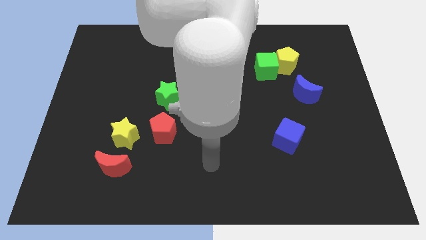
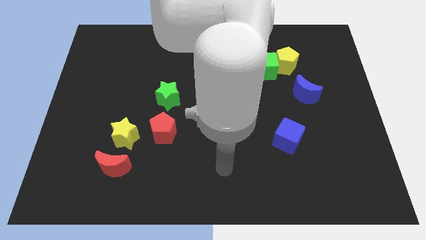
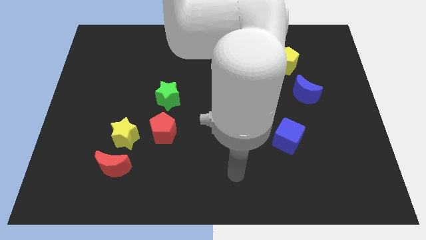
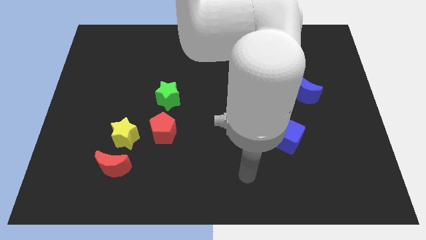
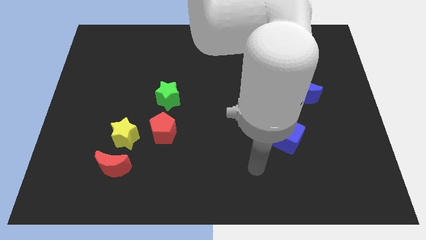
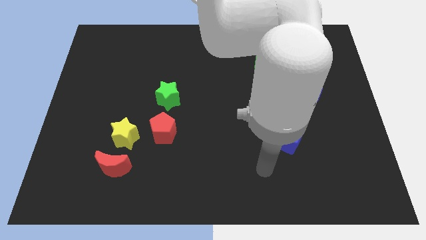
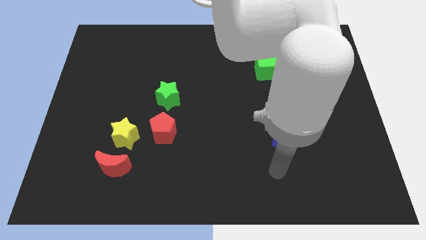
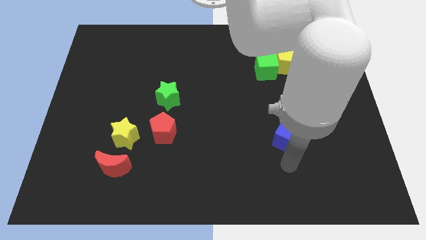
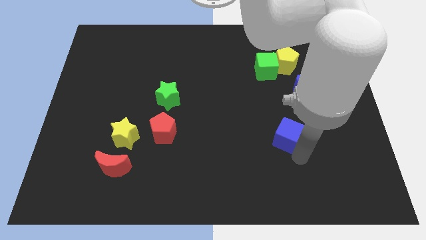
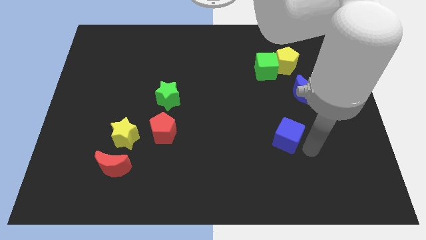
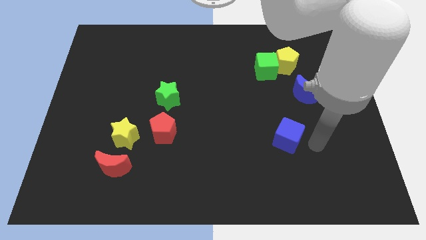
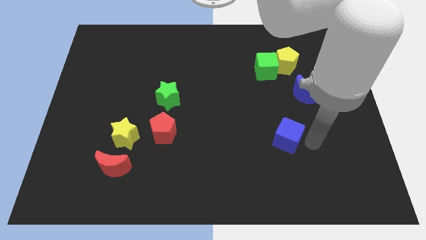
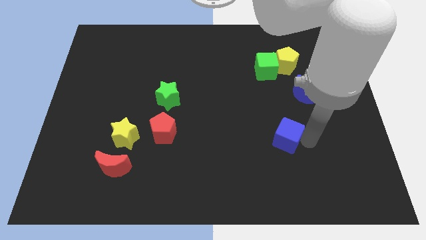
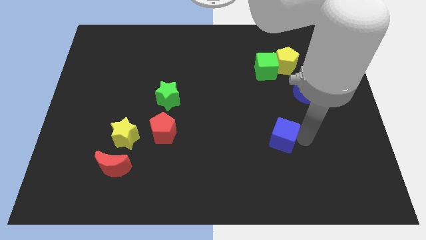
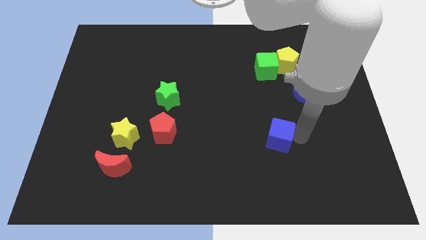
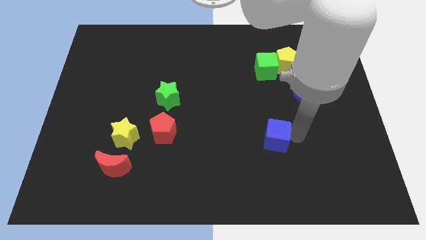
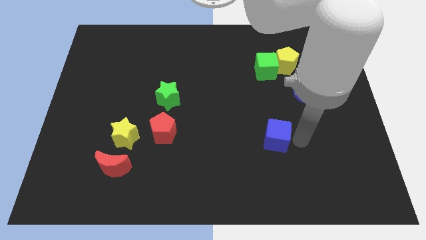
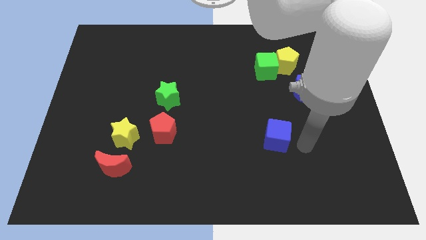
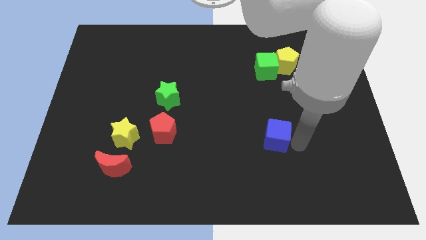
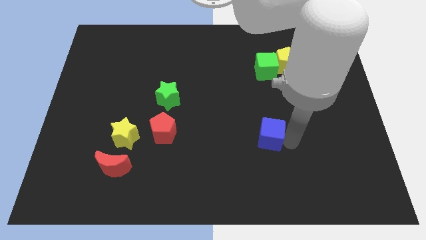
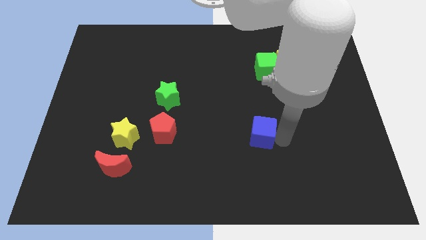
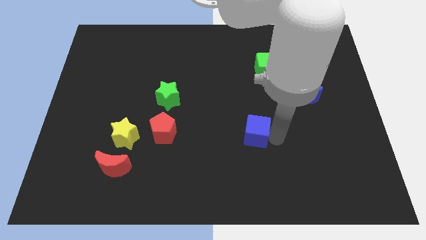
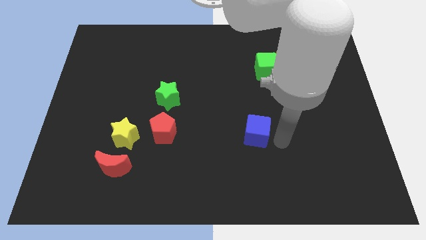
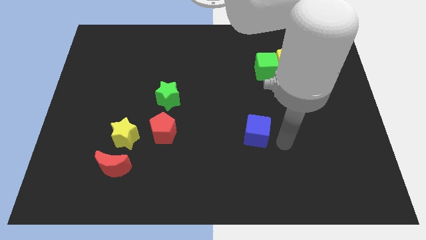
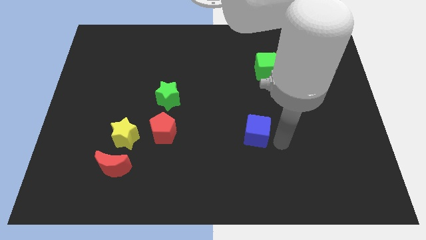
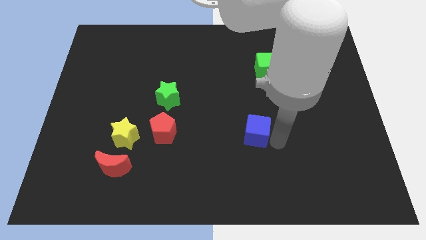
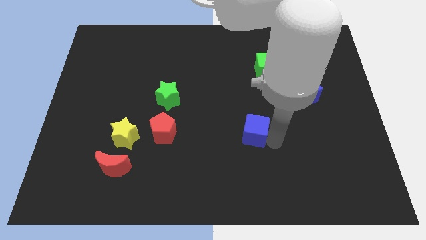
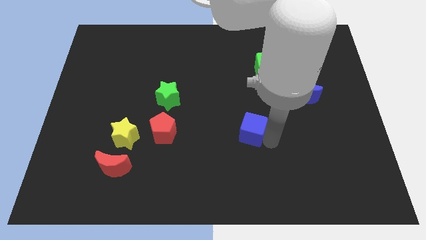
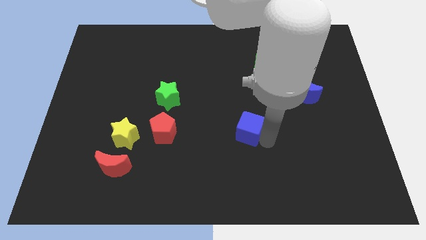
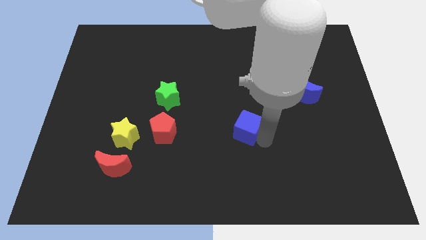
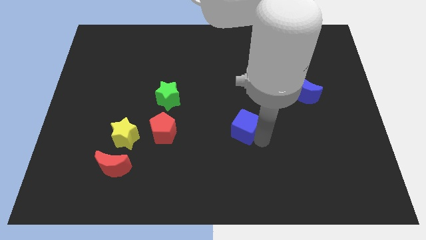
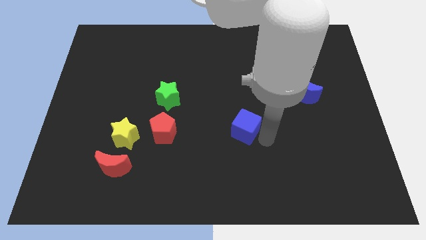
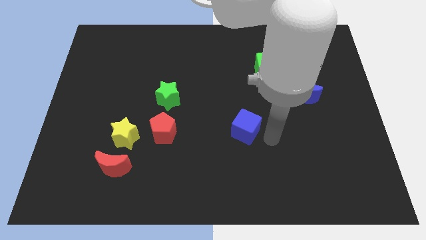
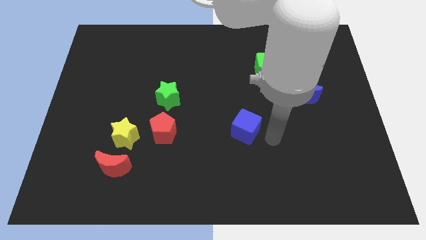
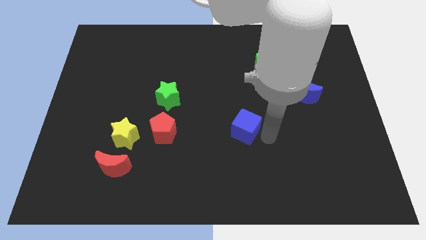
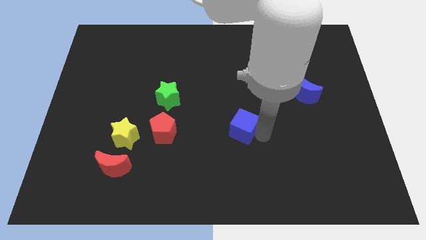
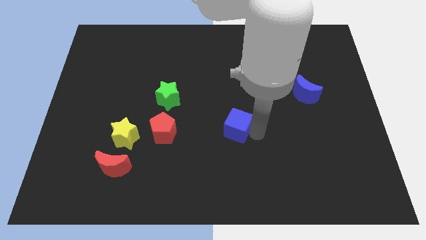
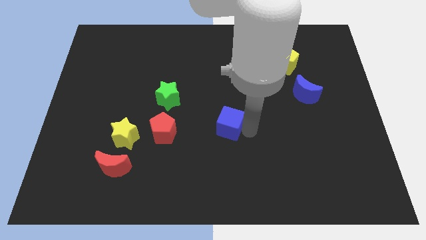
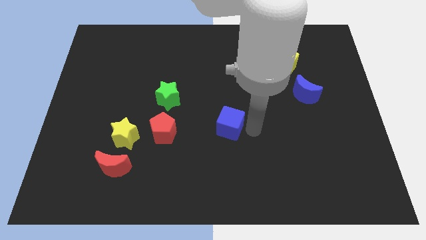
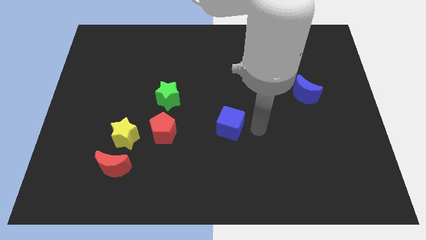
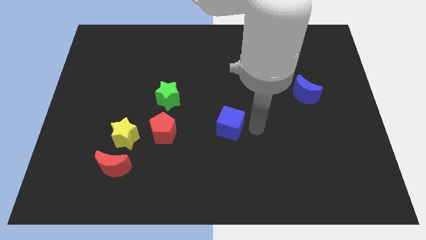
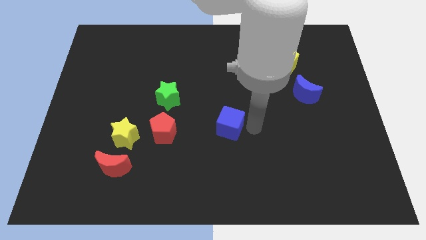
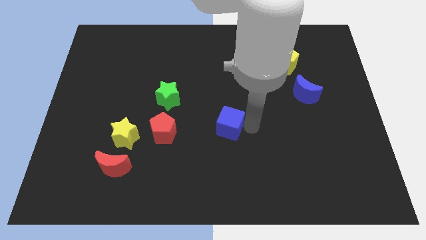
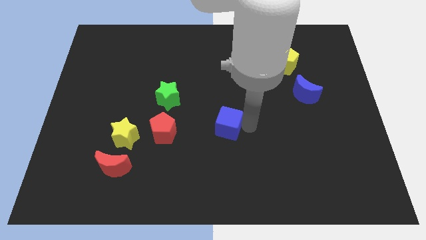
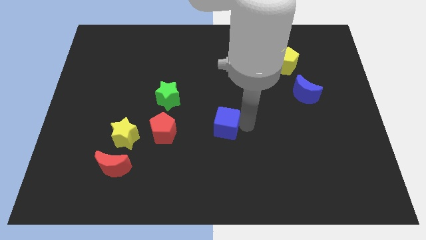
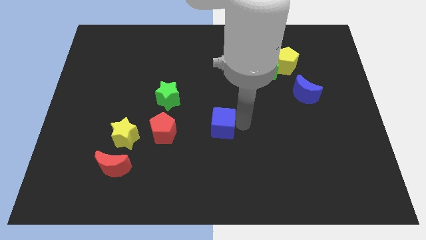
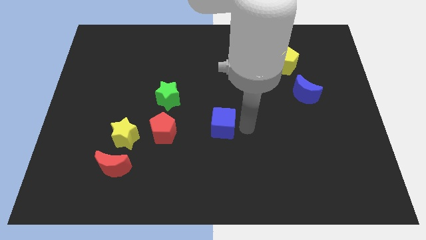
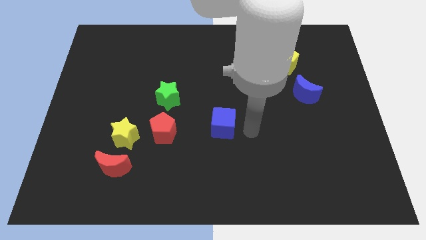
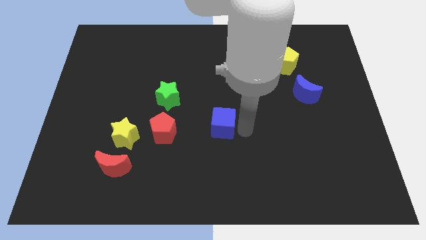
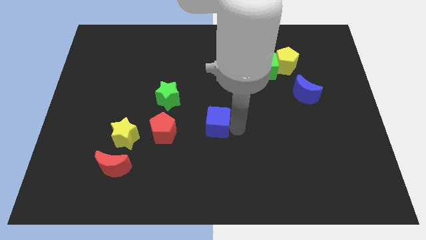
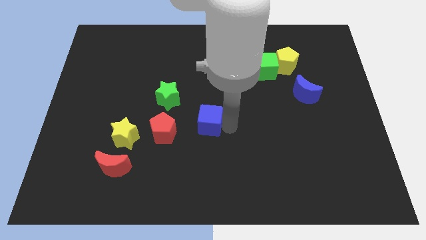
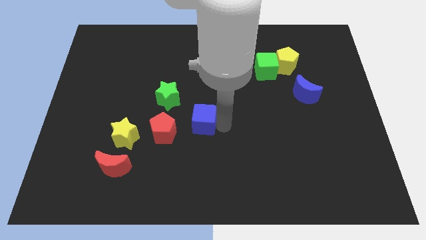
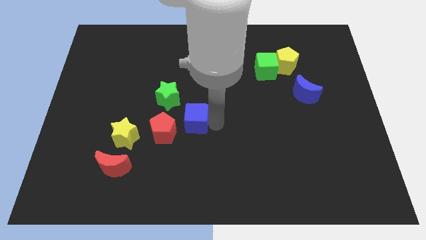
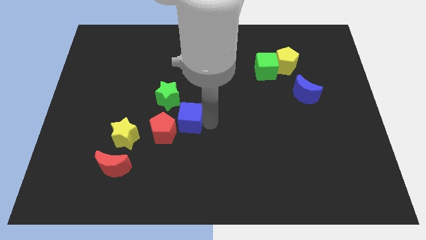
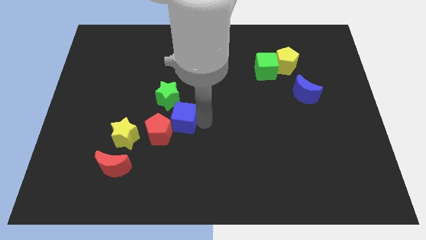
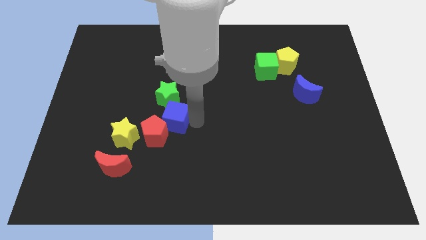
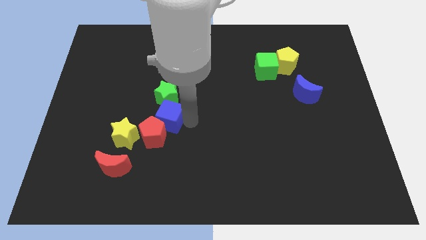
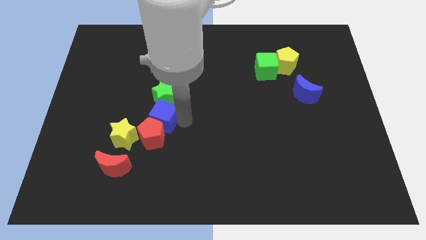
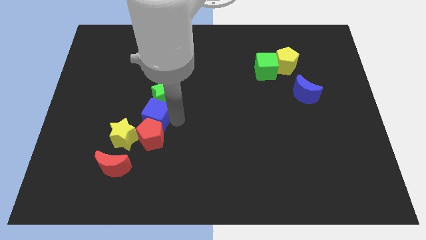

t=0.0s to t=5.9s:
push the blue cube diagonally up and to the left of the red pentagon

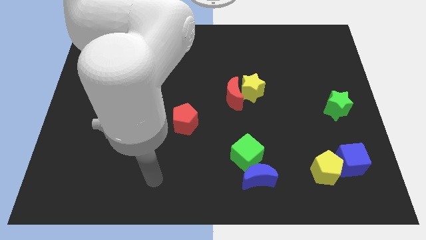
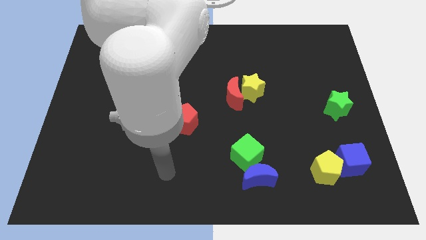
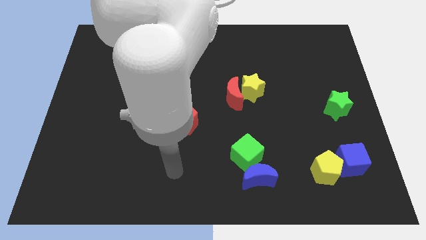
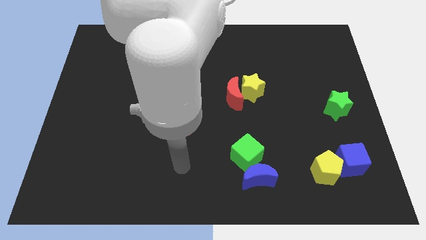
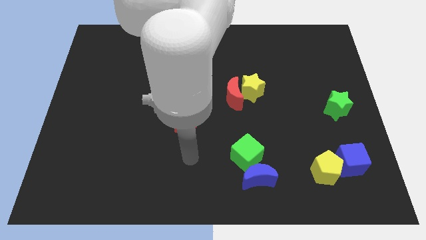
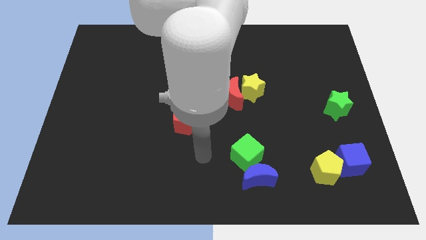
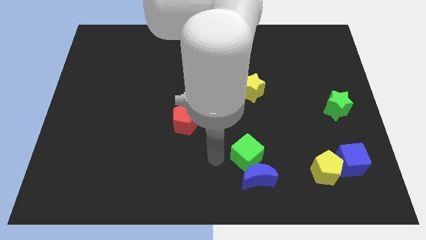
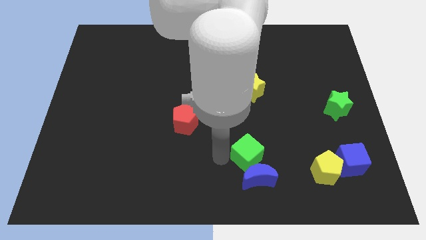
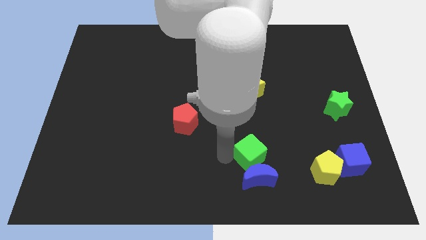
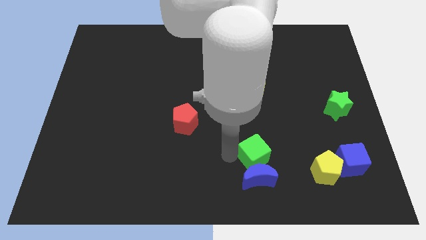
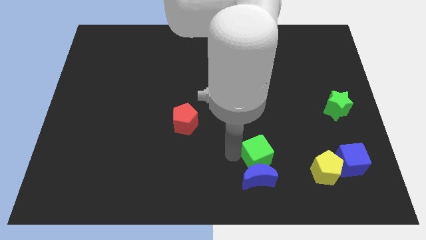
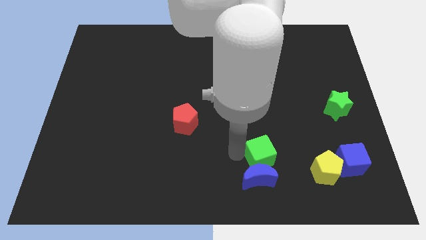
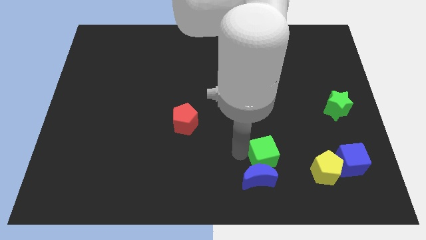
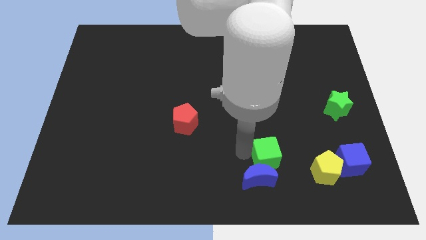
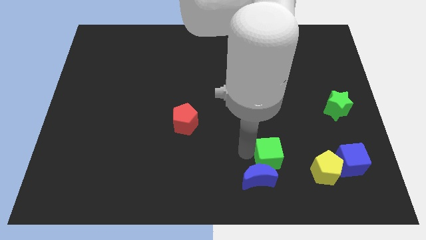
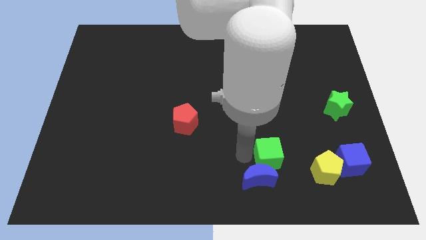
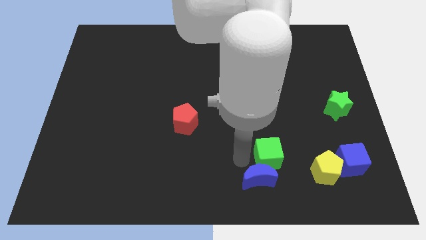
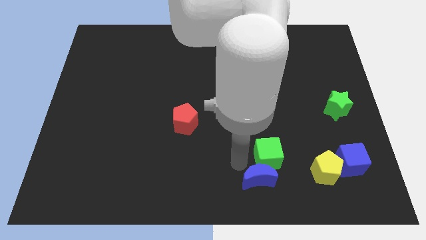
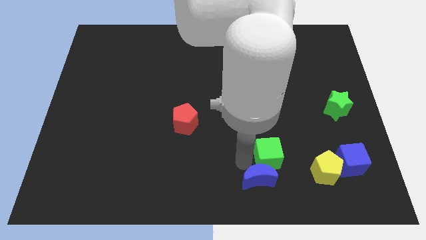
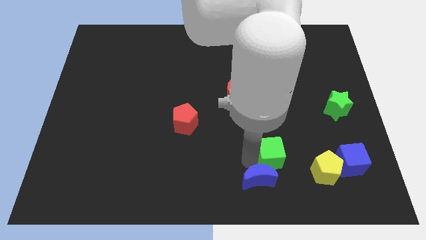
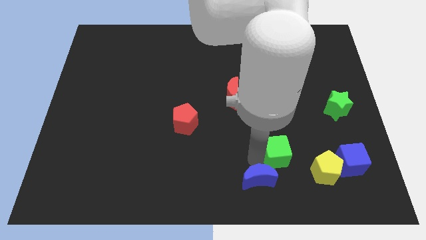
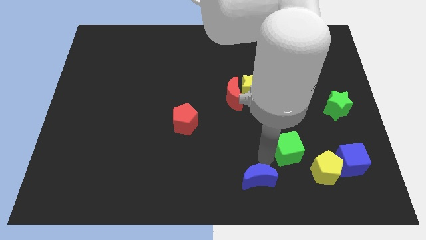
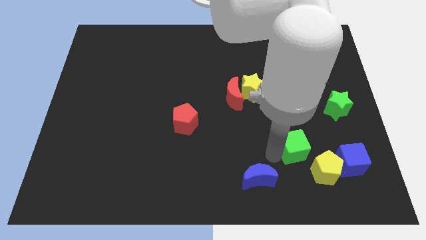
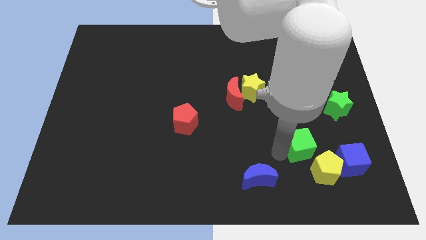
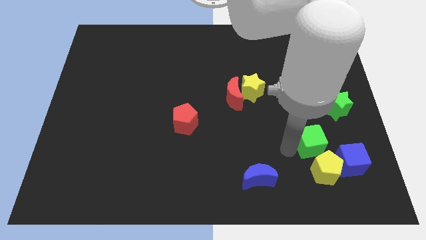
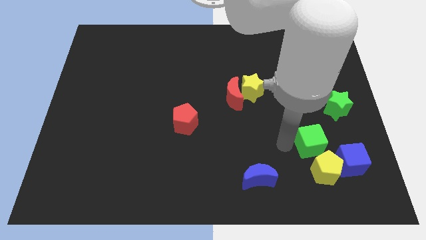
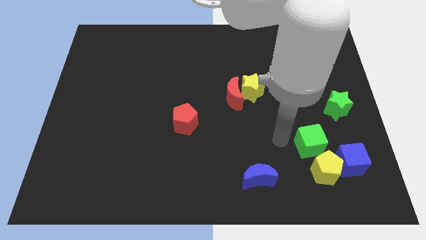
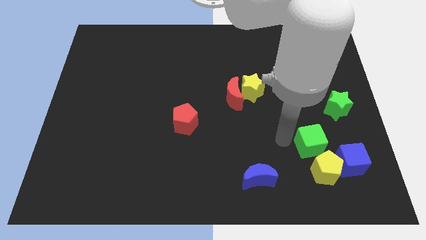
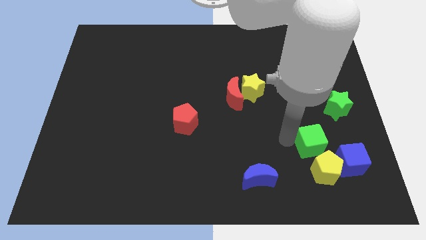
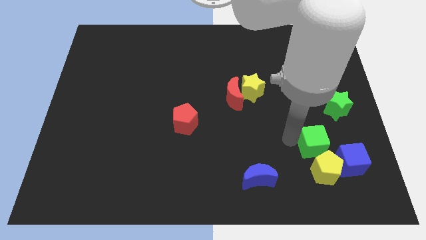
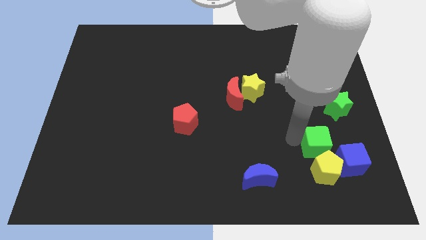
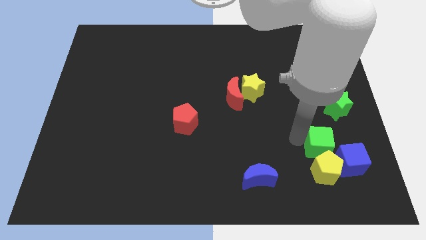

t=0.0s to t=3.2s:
push the green cube diagonally up and to the right of the yellow pentagon
